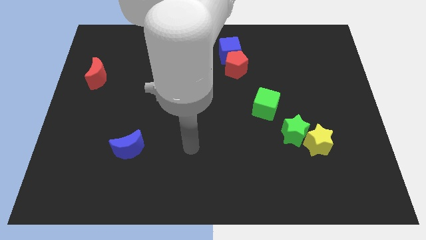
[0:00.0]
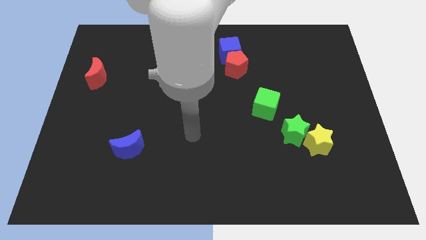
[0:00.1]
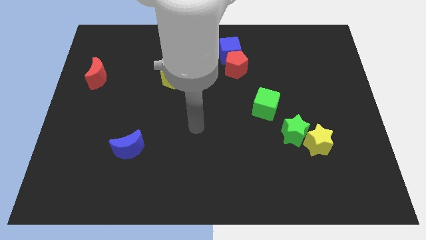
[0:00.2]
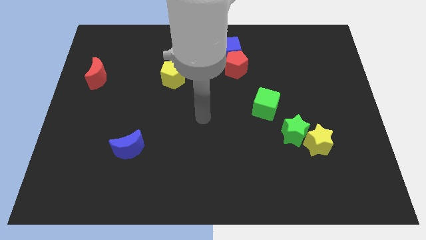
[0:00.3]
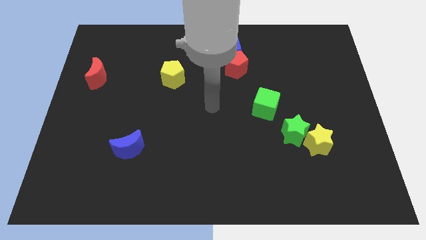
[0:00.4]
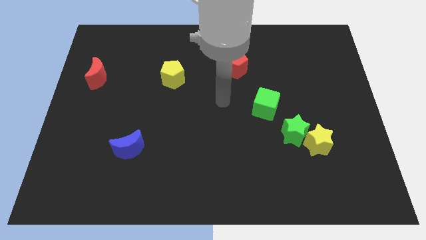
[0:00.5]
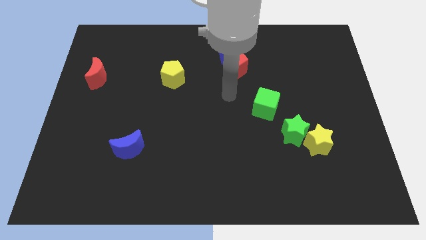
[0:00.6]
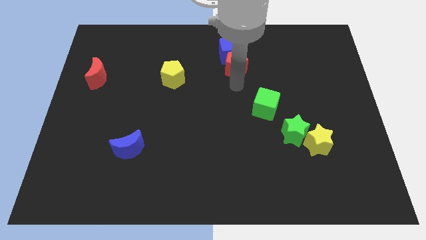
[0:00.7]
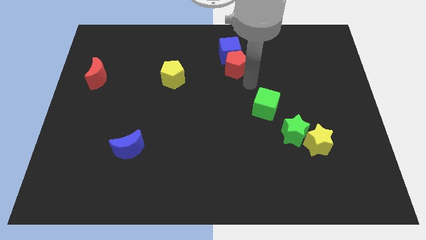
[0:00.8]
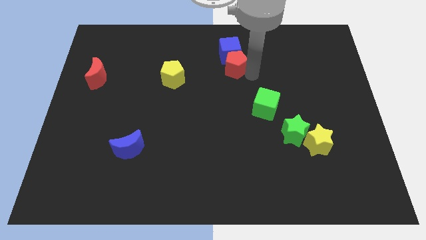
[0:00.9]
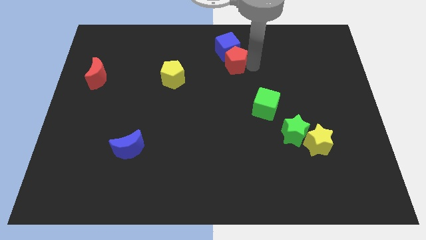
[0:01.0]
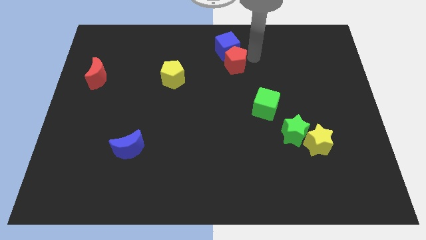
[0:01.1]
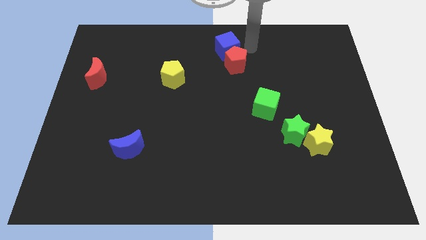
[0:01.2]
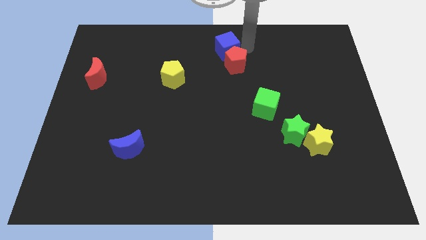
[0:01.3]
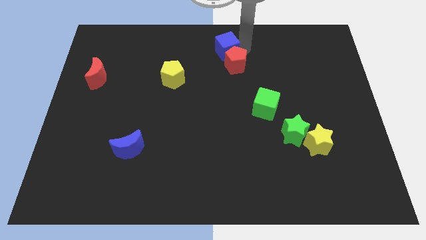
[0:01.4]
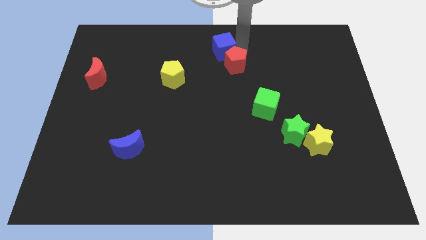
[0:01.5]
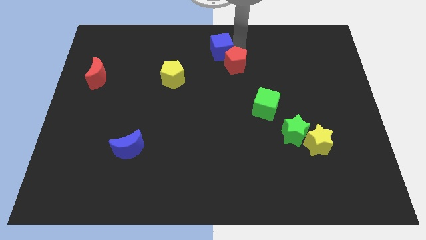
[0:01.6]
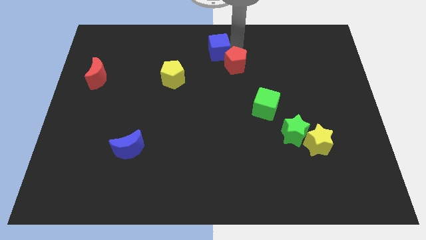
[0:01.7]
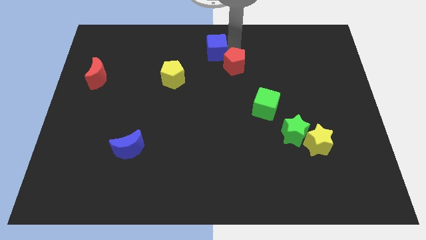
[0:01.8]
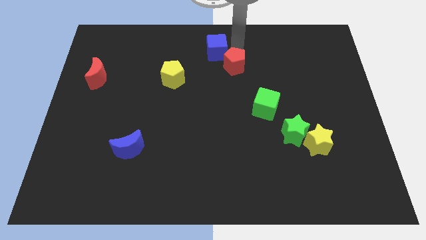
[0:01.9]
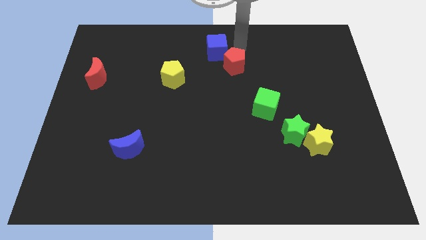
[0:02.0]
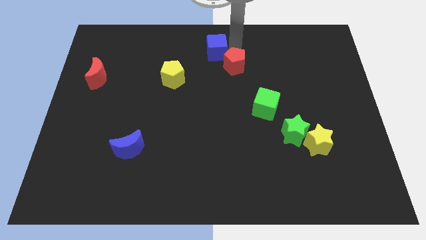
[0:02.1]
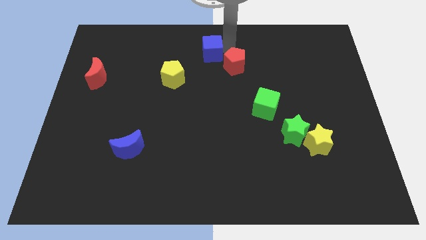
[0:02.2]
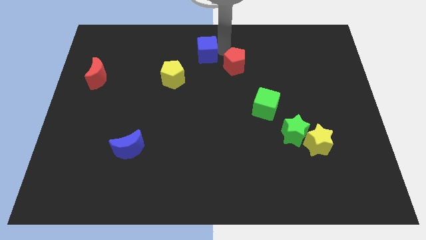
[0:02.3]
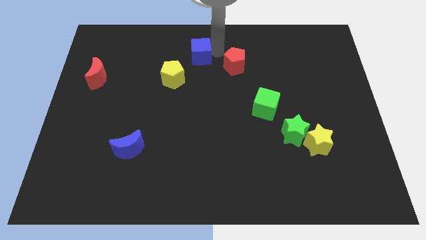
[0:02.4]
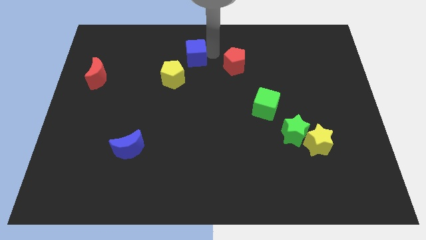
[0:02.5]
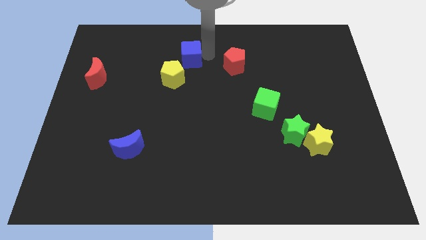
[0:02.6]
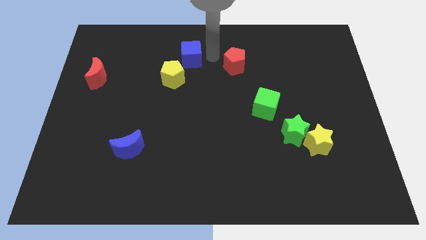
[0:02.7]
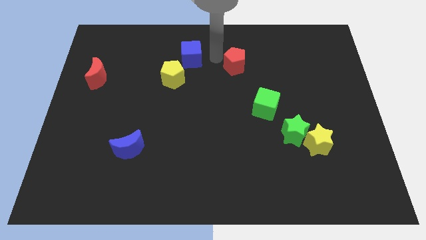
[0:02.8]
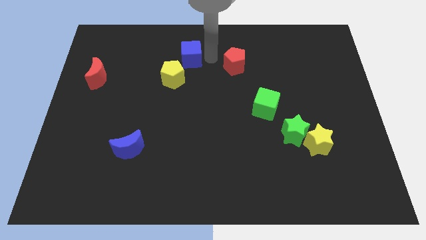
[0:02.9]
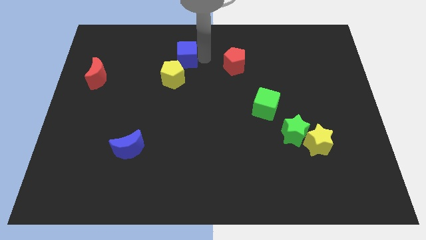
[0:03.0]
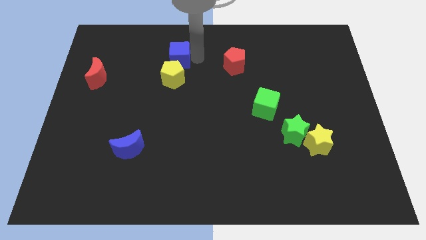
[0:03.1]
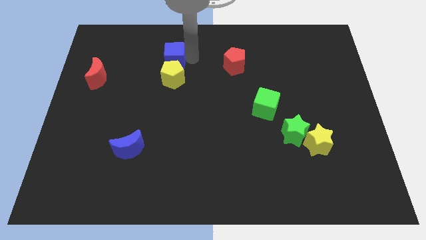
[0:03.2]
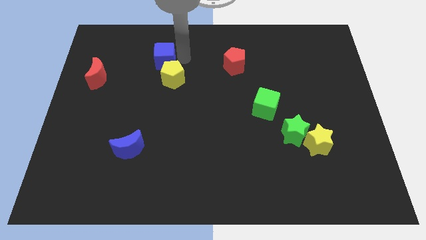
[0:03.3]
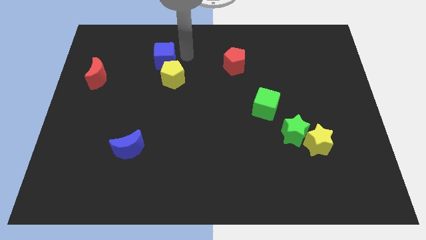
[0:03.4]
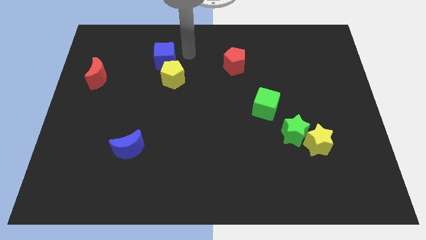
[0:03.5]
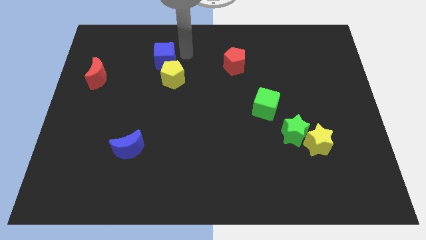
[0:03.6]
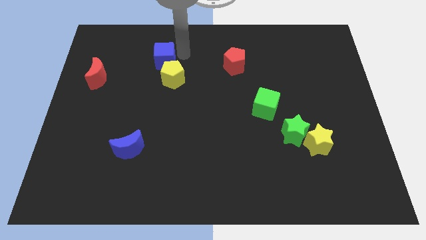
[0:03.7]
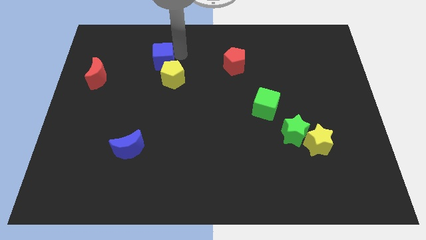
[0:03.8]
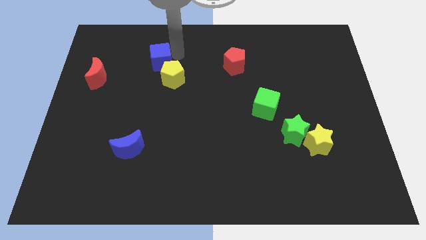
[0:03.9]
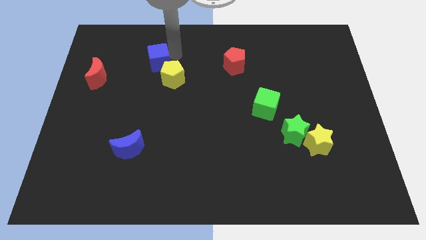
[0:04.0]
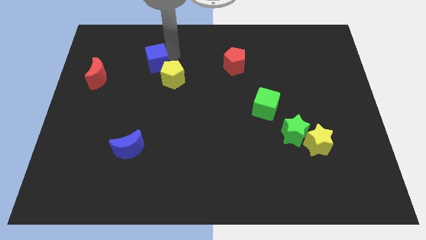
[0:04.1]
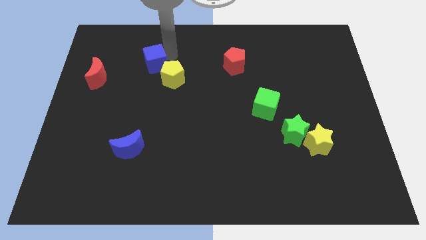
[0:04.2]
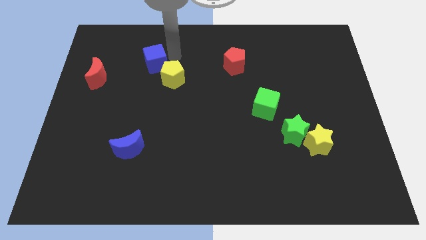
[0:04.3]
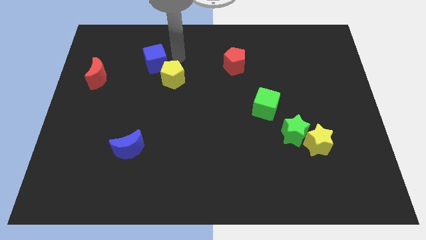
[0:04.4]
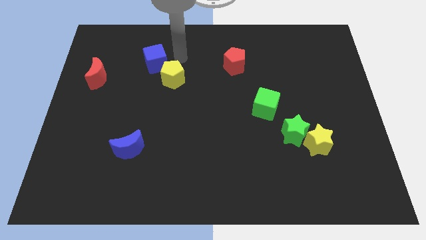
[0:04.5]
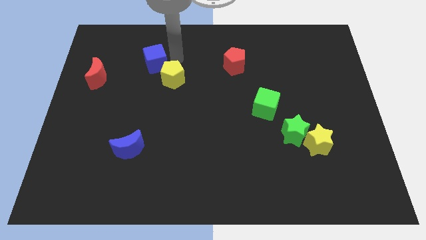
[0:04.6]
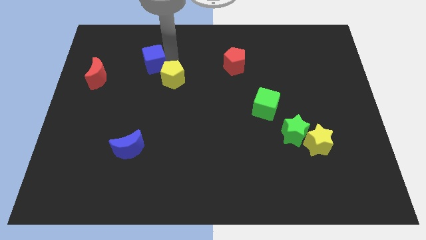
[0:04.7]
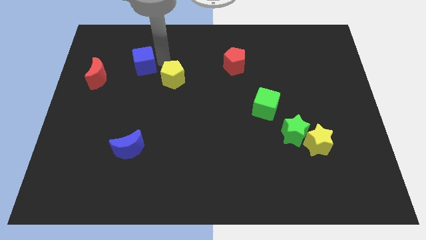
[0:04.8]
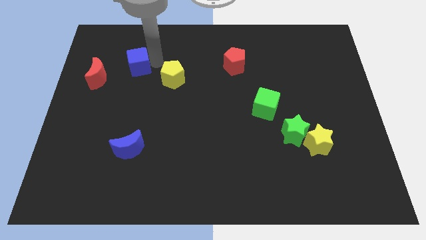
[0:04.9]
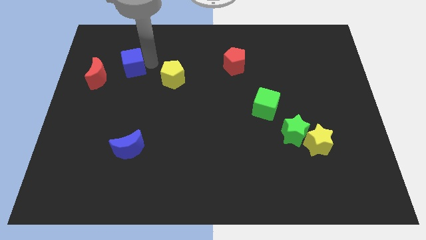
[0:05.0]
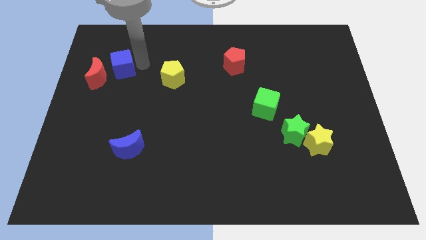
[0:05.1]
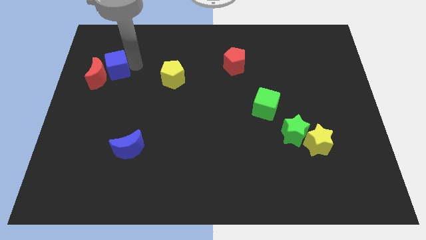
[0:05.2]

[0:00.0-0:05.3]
push the blue cube close to the red moon
